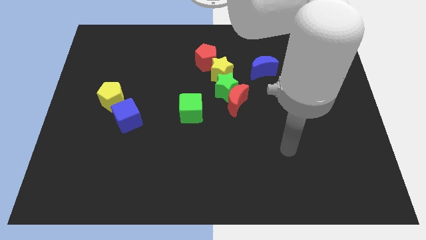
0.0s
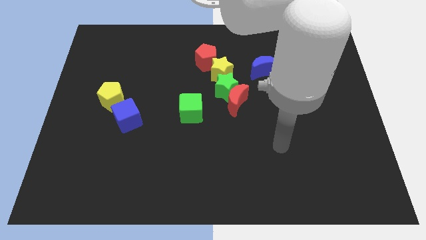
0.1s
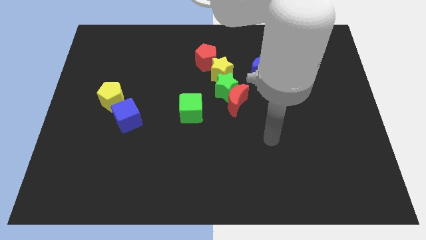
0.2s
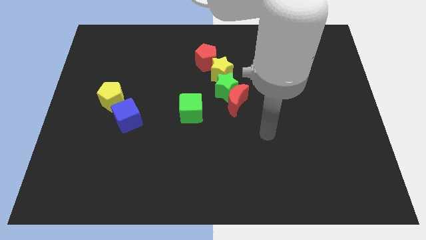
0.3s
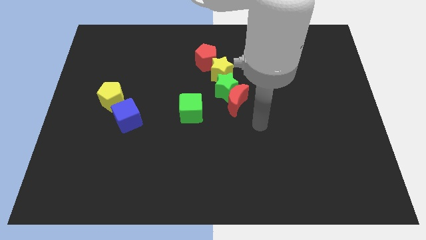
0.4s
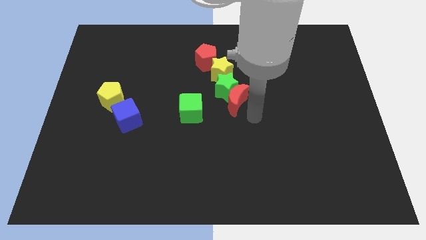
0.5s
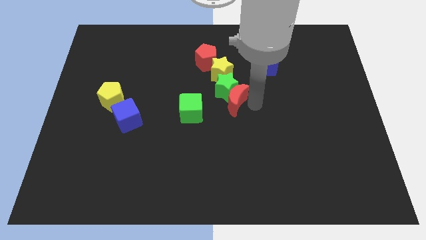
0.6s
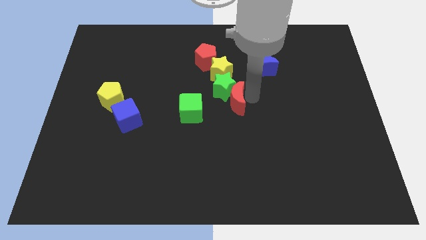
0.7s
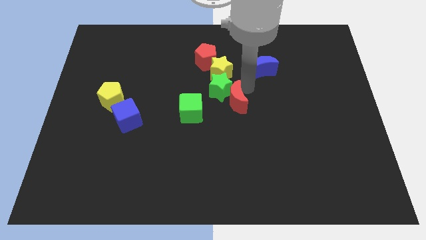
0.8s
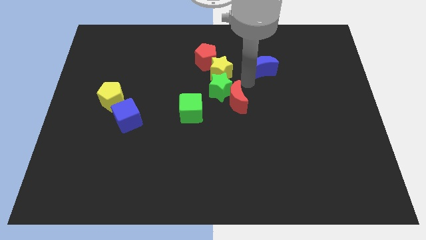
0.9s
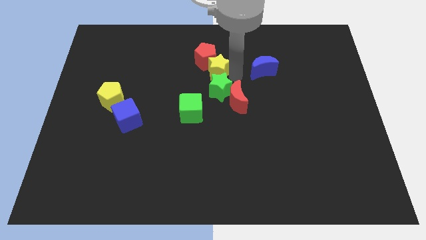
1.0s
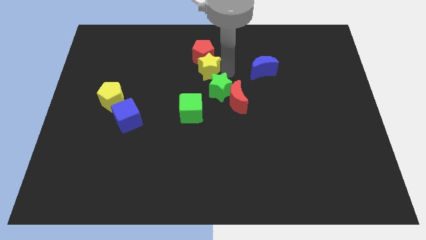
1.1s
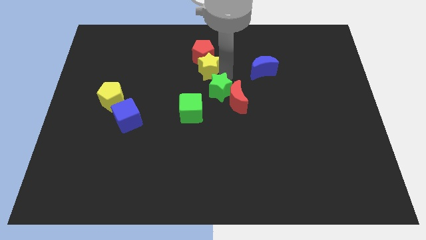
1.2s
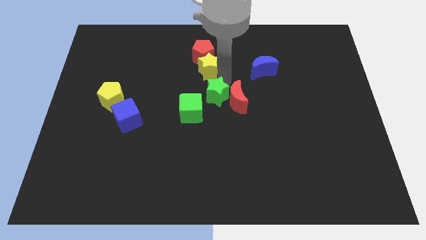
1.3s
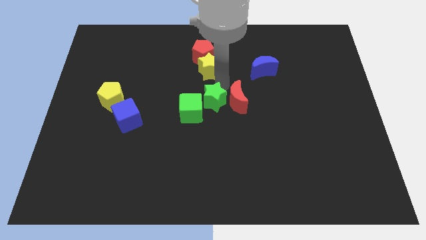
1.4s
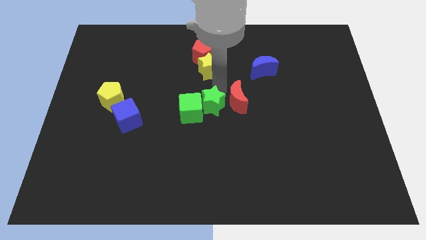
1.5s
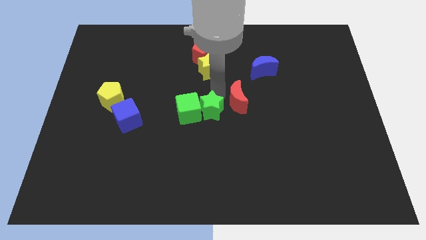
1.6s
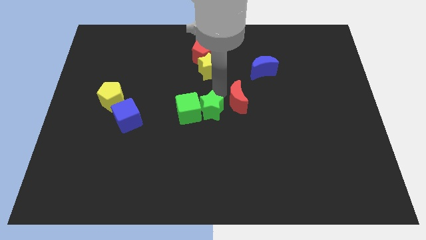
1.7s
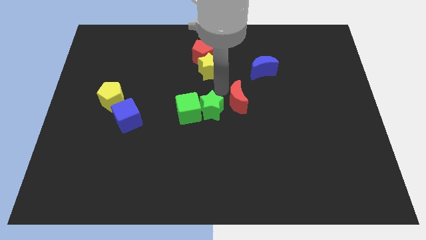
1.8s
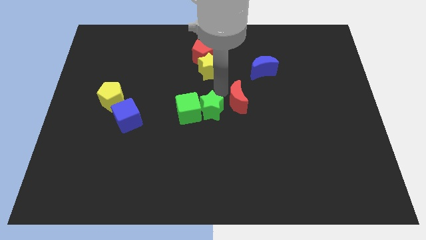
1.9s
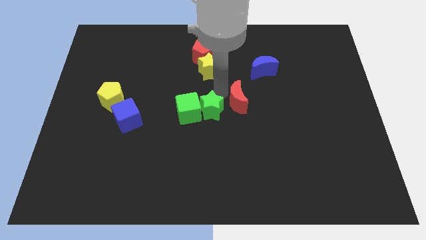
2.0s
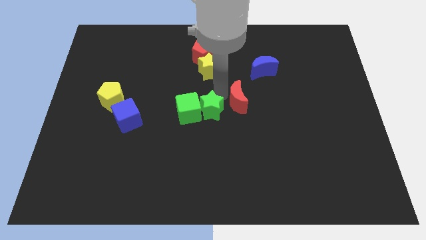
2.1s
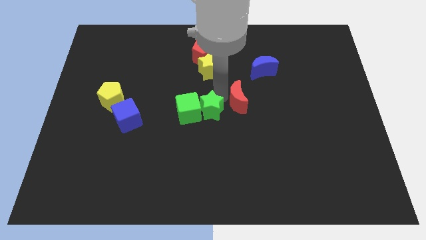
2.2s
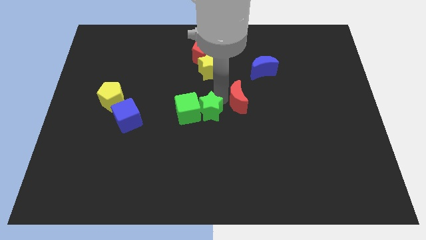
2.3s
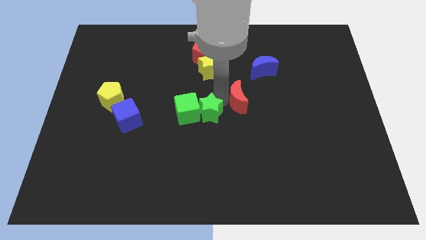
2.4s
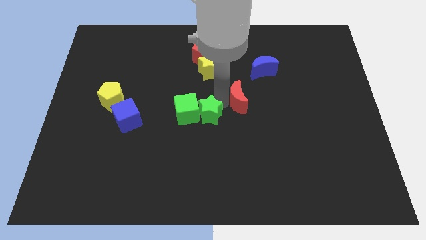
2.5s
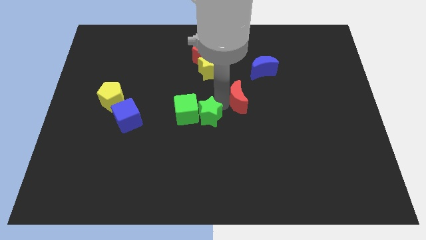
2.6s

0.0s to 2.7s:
move the green star away from the red moon and yellow star

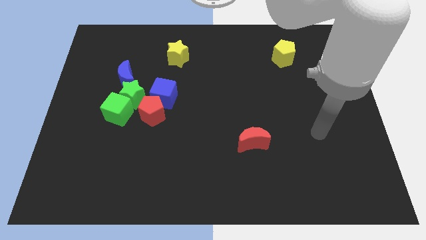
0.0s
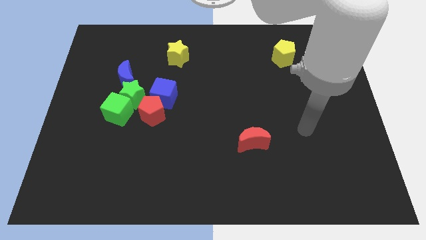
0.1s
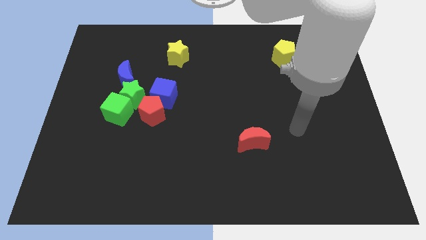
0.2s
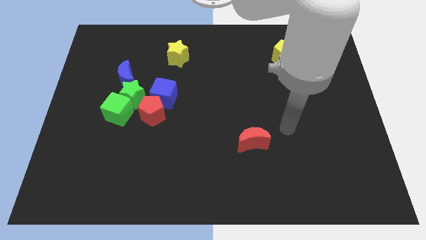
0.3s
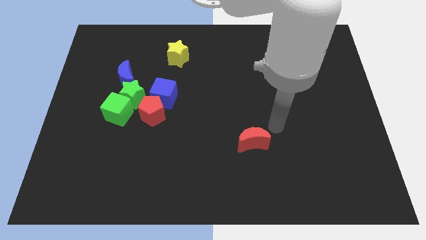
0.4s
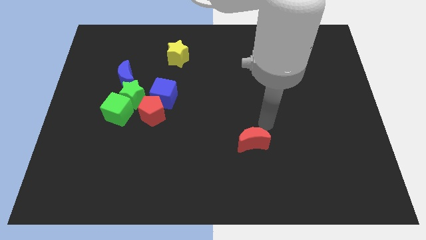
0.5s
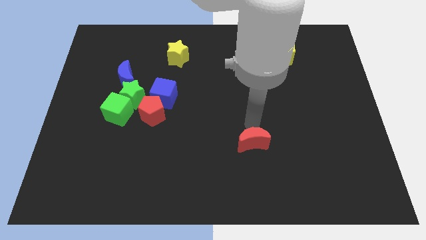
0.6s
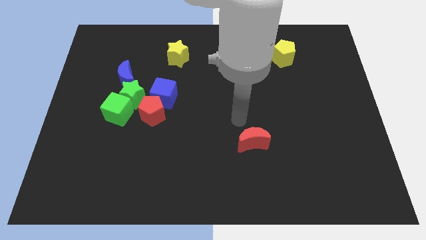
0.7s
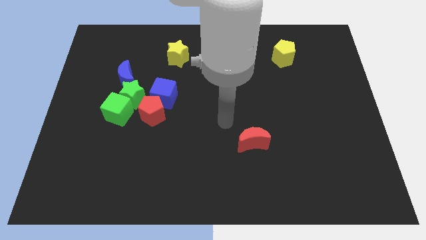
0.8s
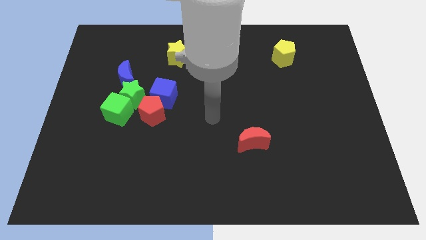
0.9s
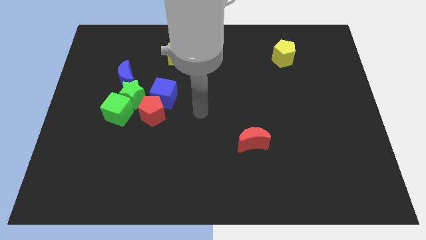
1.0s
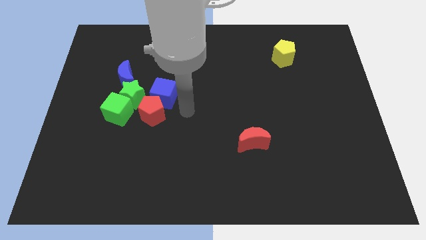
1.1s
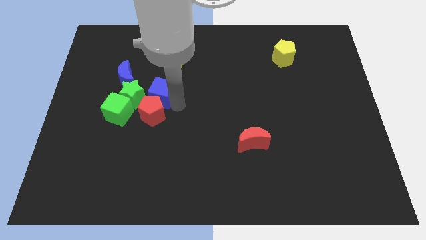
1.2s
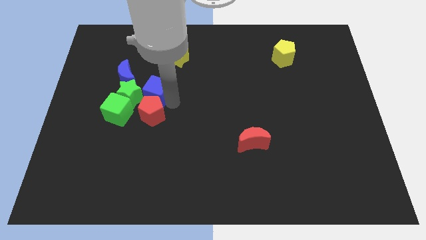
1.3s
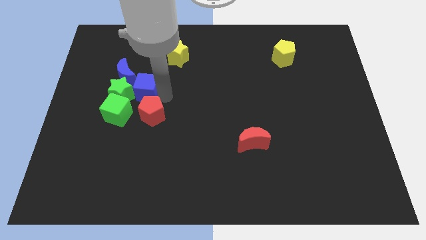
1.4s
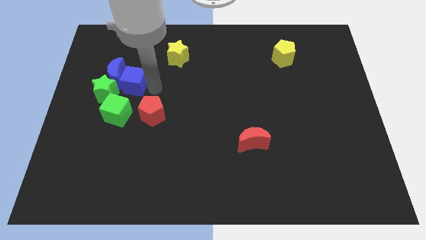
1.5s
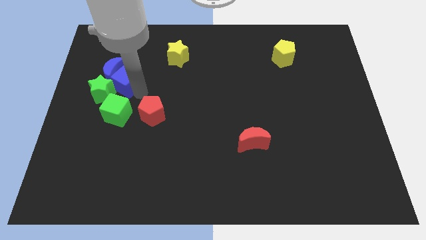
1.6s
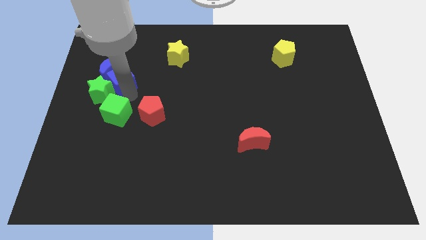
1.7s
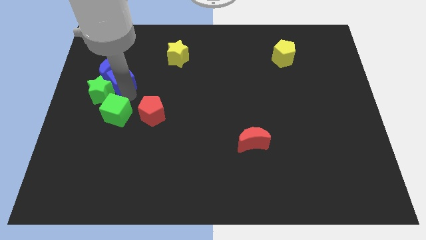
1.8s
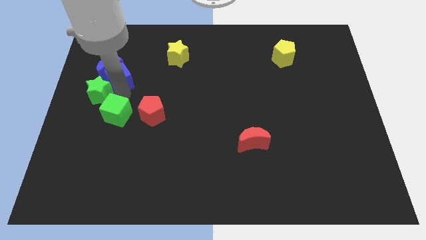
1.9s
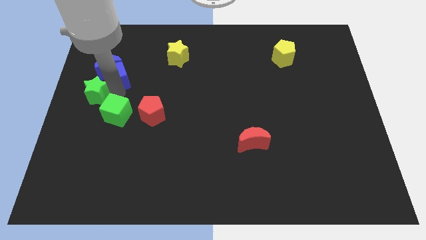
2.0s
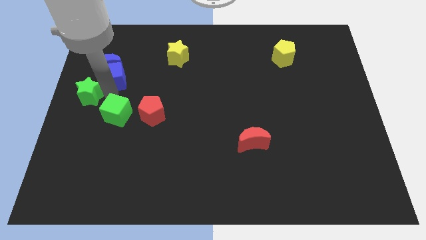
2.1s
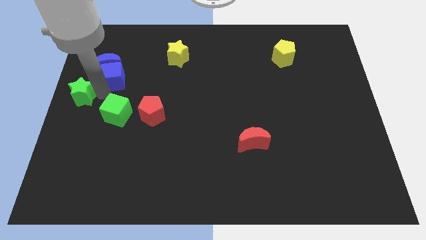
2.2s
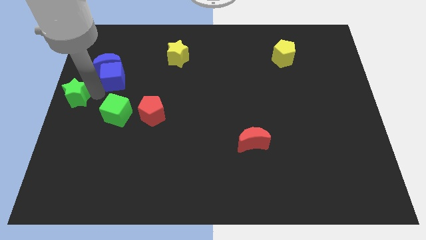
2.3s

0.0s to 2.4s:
separate the green star from the clump

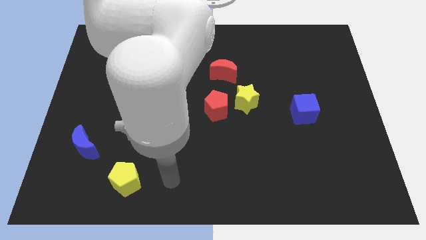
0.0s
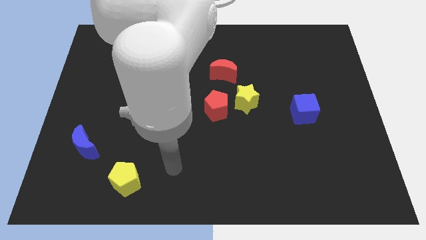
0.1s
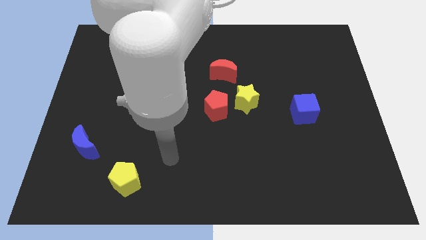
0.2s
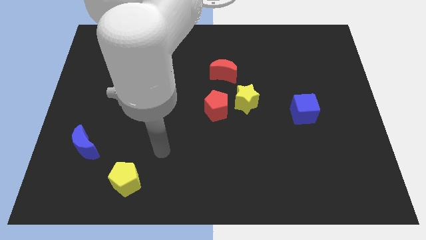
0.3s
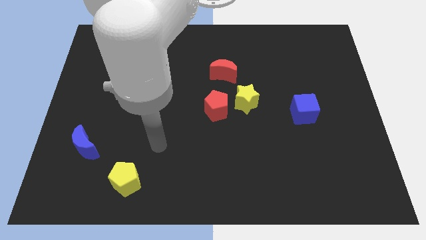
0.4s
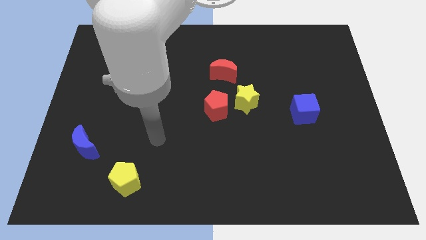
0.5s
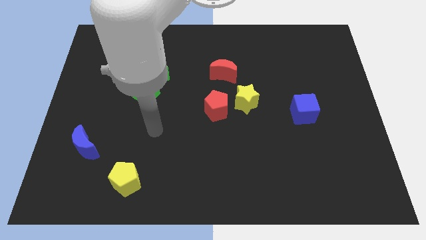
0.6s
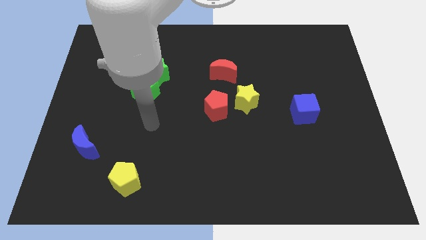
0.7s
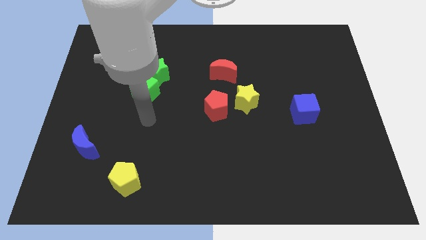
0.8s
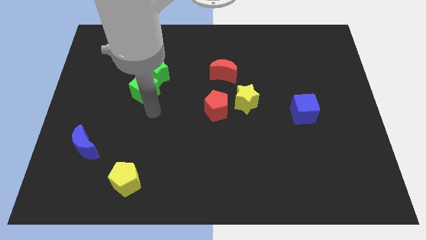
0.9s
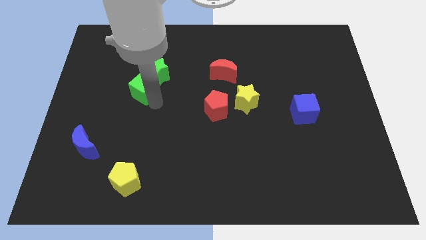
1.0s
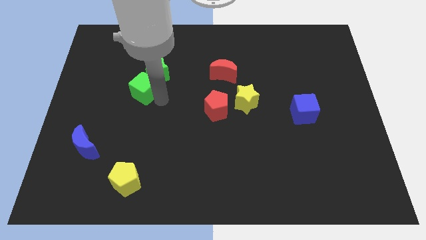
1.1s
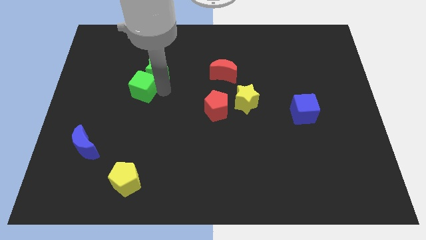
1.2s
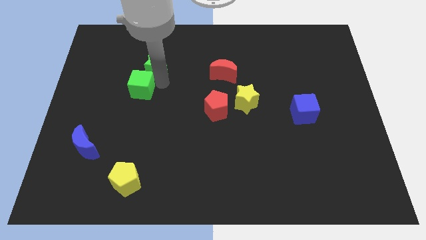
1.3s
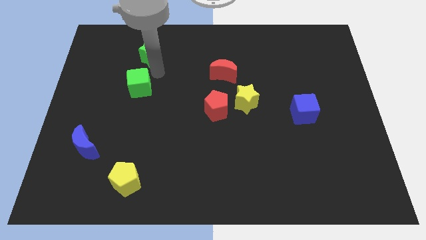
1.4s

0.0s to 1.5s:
move the green cube away from the green star

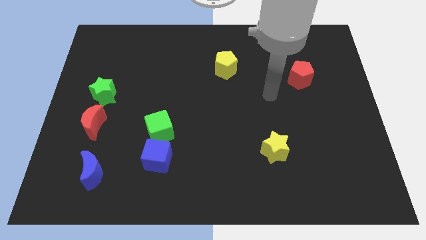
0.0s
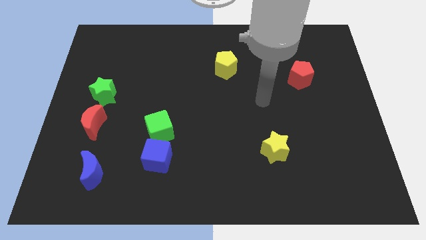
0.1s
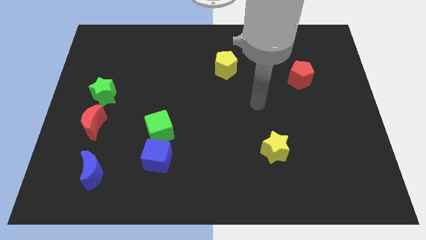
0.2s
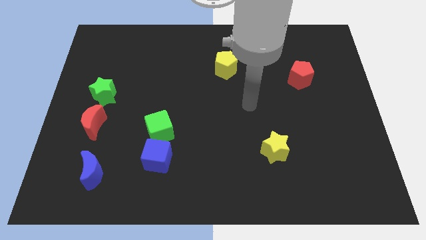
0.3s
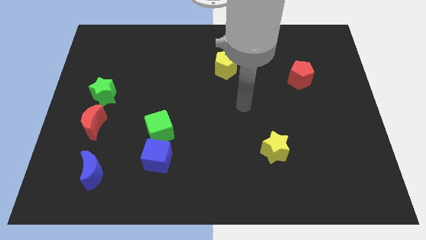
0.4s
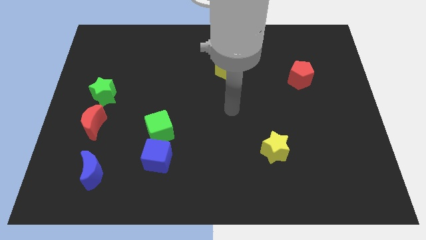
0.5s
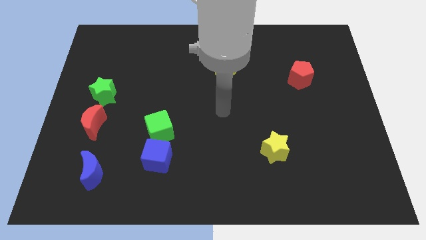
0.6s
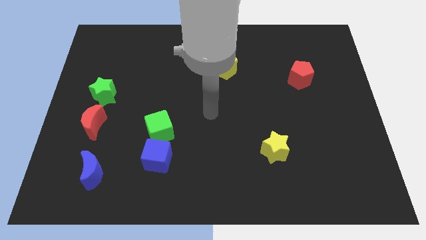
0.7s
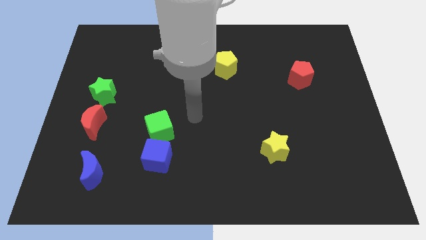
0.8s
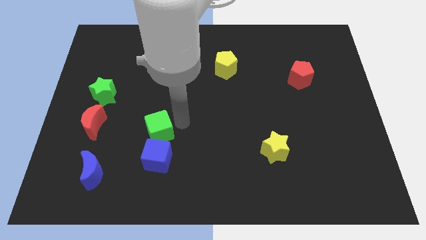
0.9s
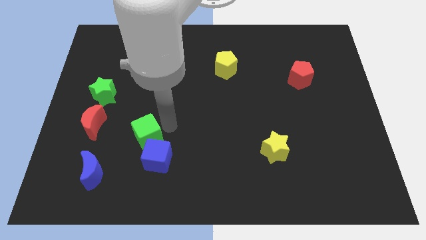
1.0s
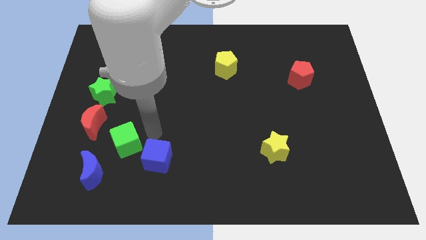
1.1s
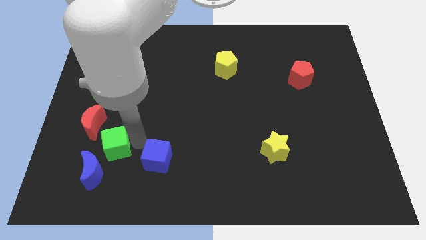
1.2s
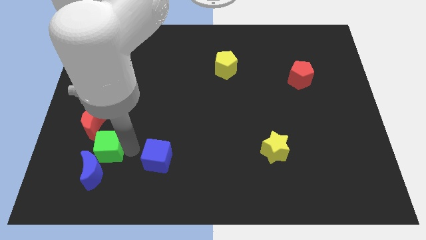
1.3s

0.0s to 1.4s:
pull the blue cube apart from the green cube

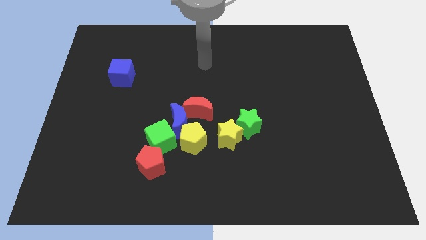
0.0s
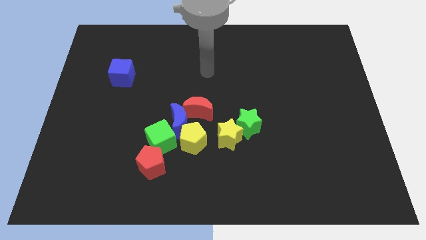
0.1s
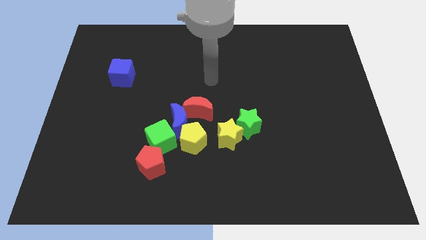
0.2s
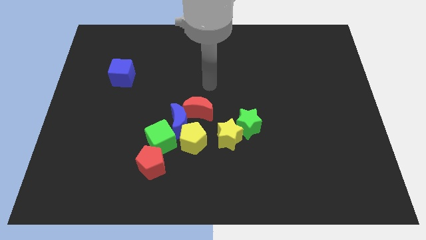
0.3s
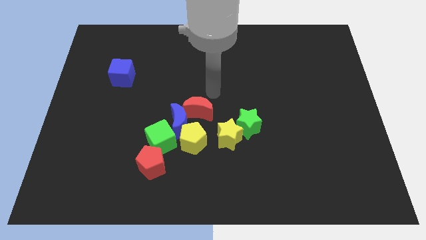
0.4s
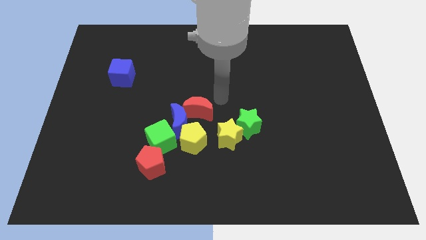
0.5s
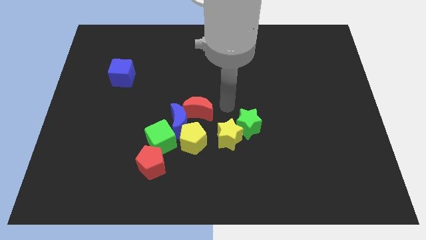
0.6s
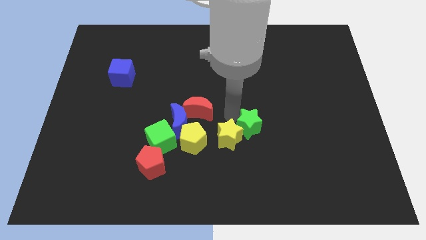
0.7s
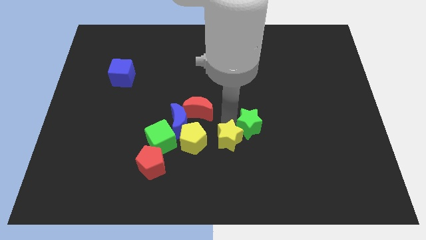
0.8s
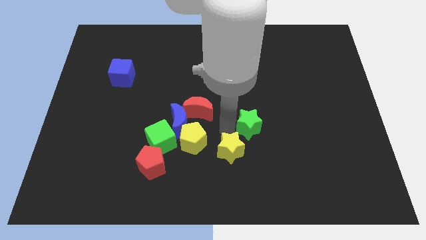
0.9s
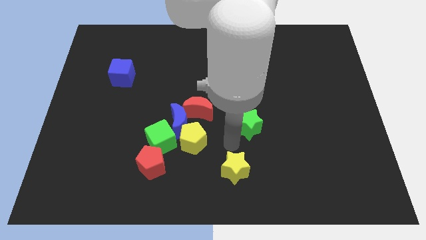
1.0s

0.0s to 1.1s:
move the green star away from the yellow star

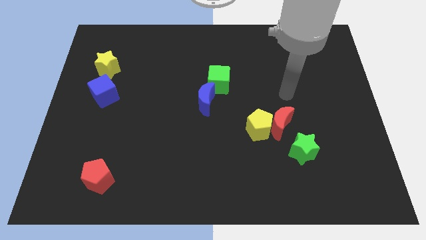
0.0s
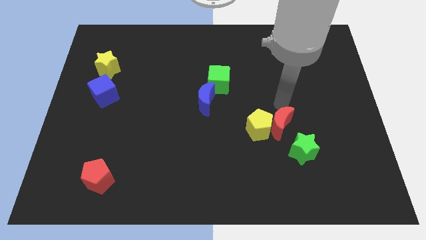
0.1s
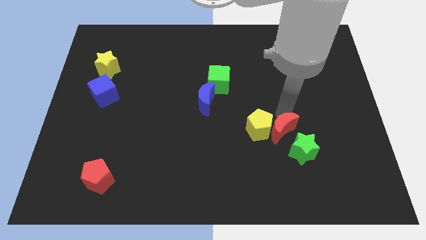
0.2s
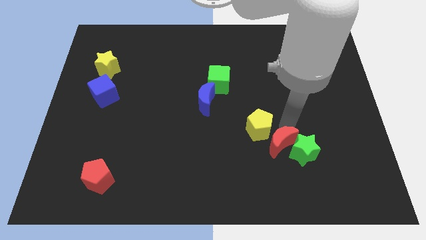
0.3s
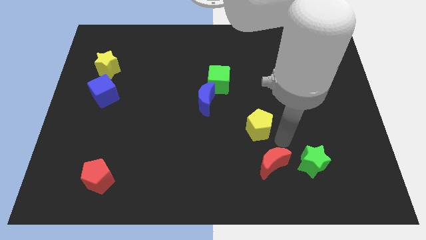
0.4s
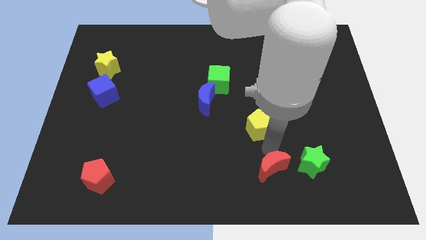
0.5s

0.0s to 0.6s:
pull the yellow pentagon apart from the red moon
